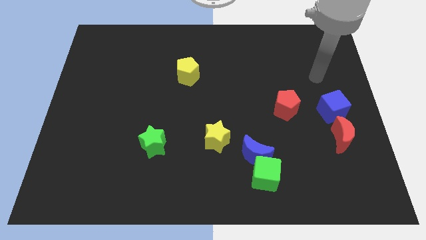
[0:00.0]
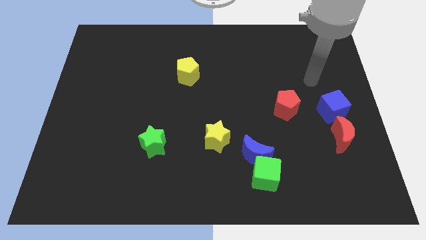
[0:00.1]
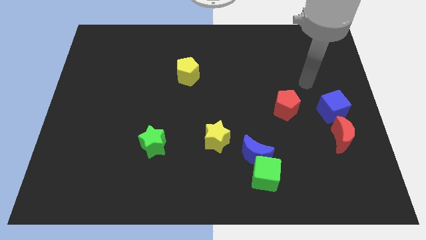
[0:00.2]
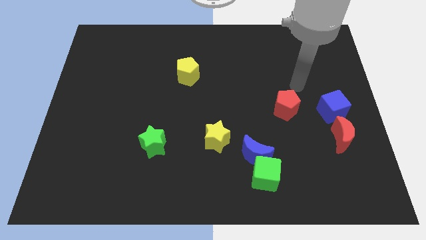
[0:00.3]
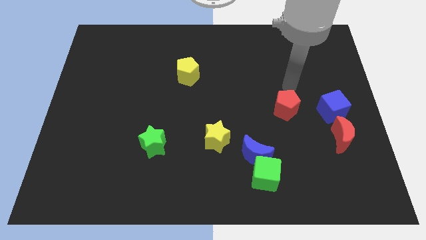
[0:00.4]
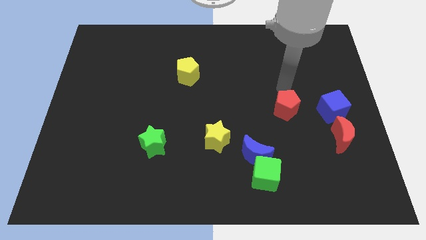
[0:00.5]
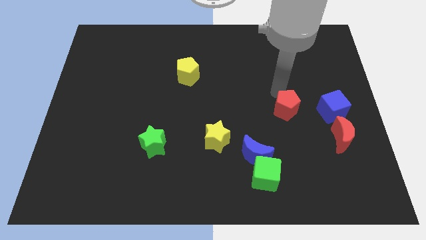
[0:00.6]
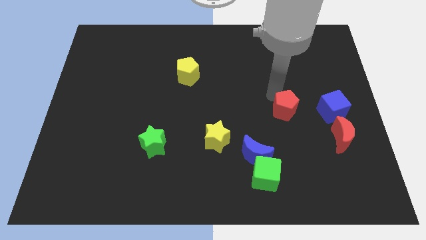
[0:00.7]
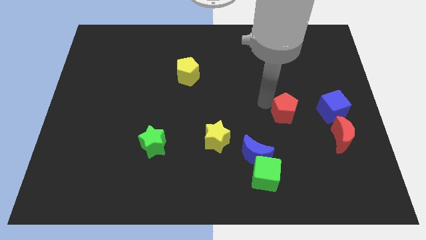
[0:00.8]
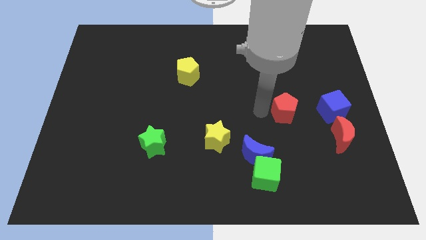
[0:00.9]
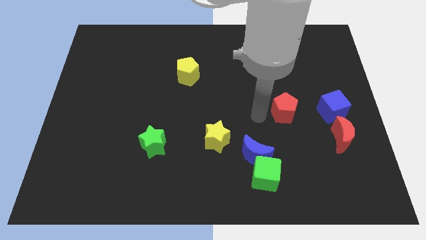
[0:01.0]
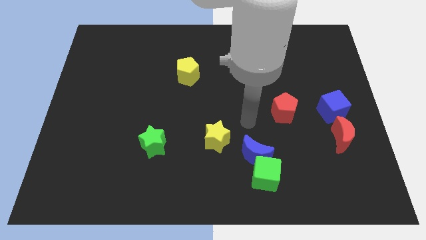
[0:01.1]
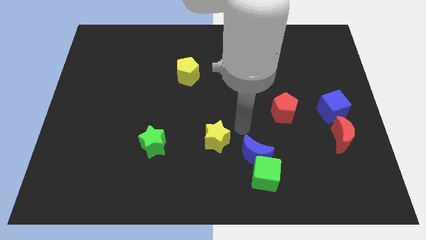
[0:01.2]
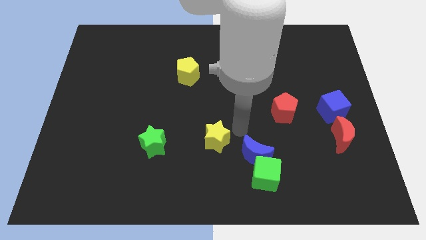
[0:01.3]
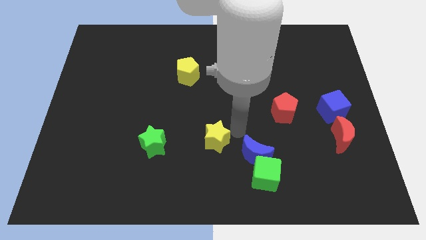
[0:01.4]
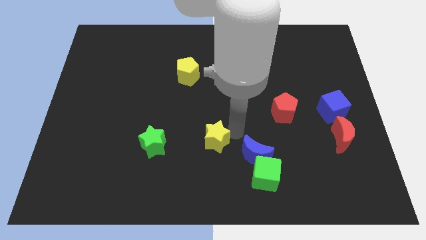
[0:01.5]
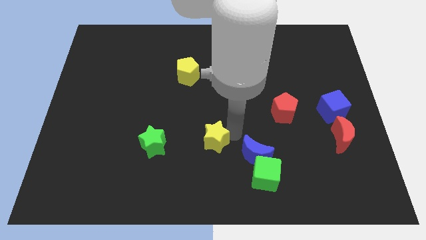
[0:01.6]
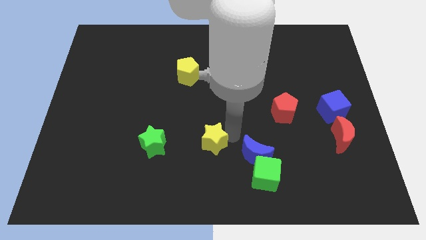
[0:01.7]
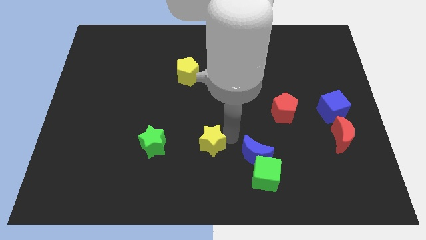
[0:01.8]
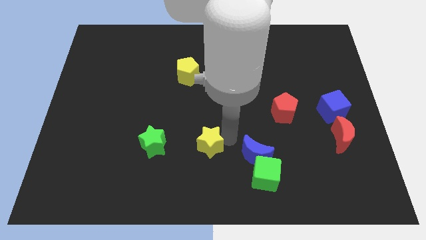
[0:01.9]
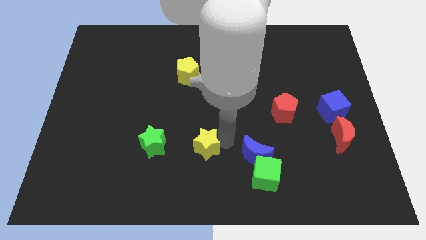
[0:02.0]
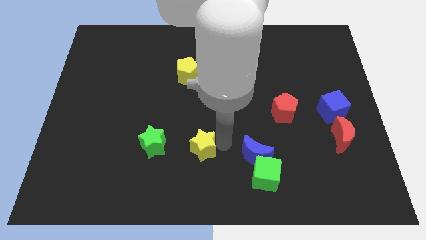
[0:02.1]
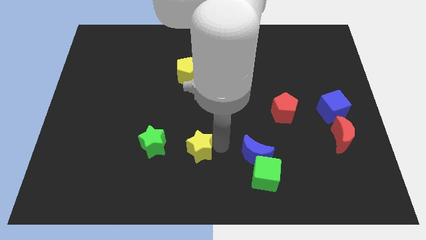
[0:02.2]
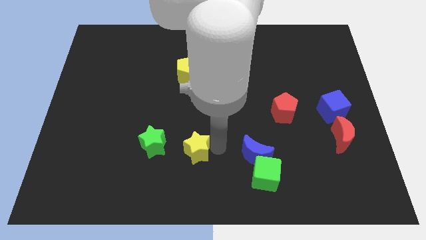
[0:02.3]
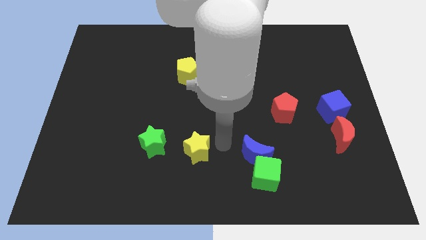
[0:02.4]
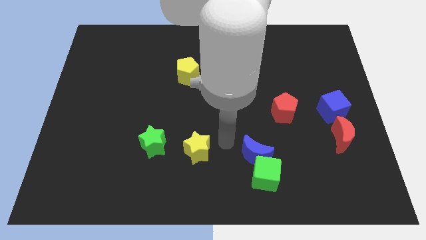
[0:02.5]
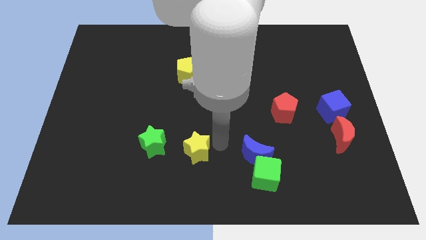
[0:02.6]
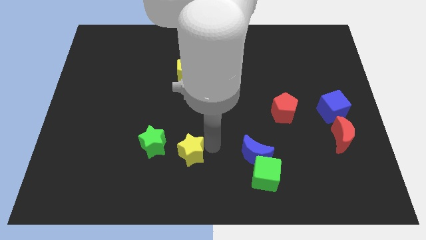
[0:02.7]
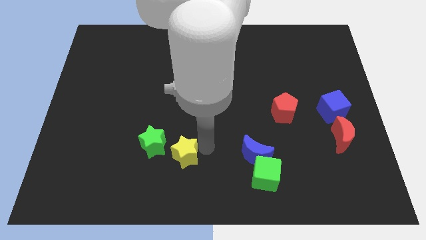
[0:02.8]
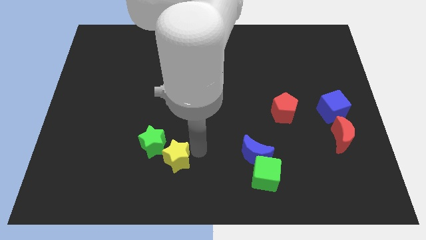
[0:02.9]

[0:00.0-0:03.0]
push the yellow star somewhat left

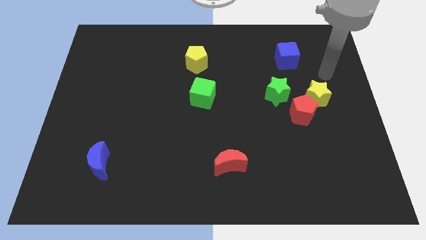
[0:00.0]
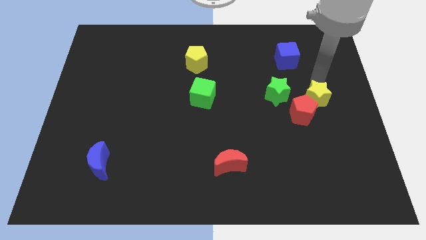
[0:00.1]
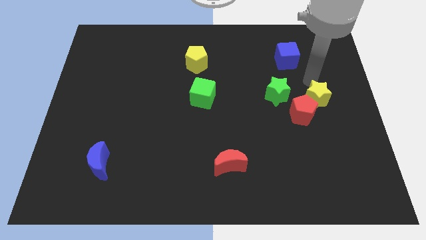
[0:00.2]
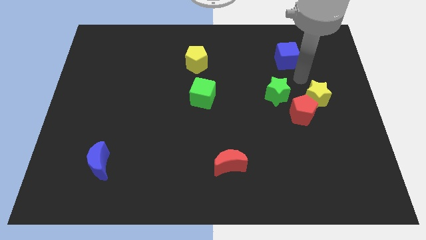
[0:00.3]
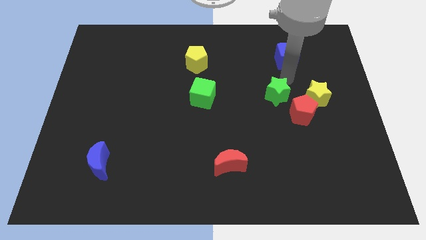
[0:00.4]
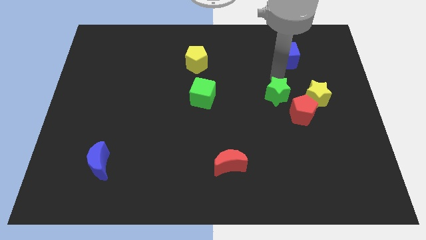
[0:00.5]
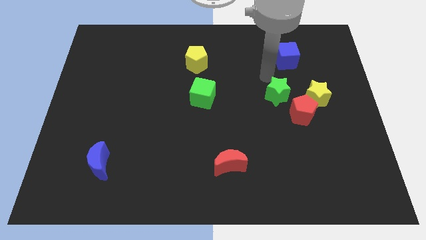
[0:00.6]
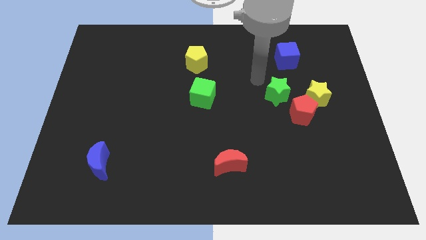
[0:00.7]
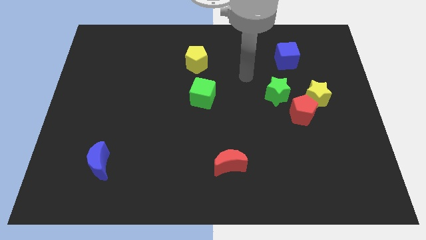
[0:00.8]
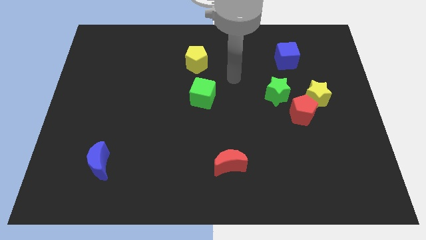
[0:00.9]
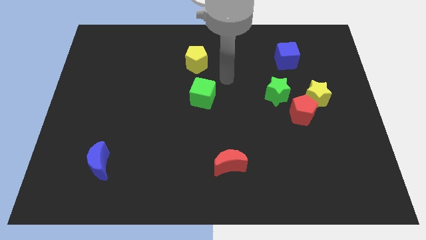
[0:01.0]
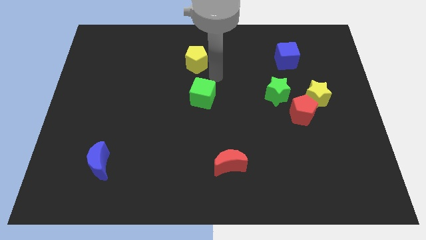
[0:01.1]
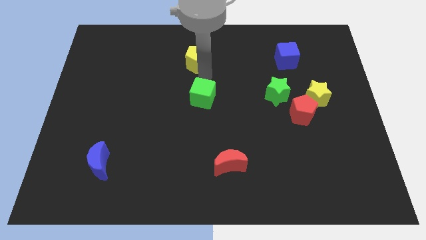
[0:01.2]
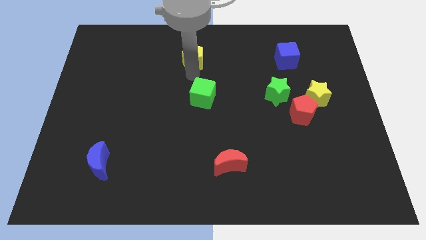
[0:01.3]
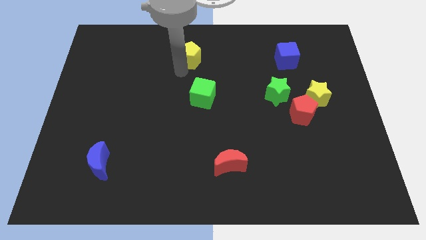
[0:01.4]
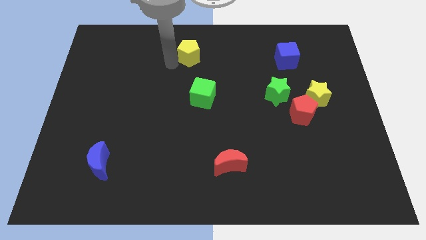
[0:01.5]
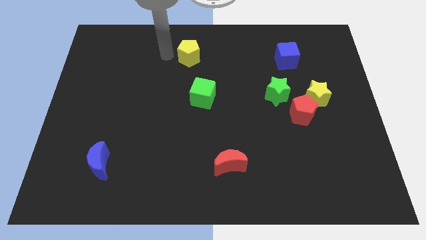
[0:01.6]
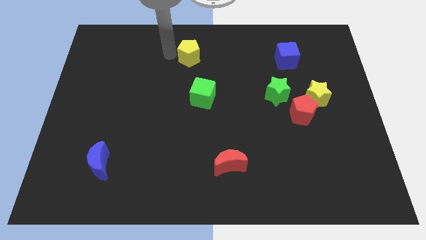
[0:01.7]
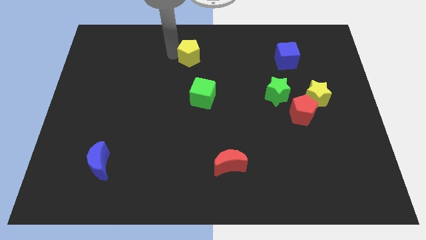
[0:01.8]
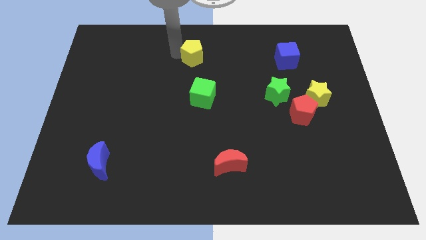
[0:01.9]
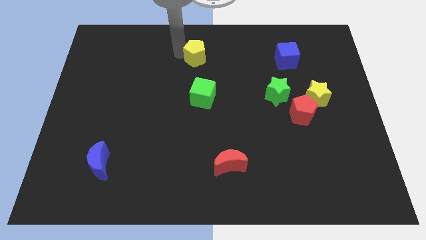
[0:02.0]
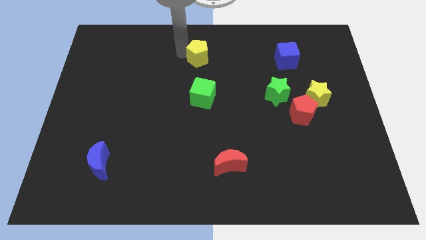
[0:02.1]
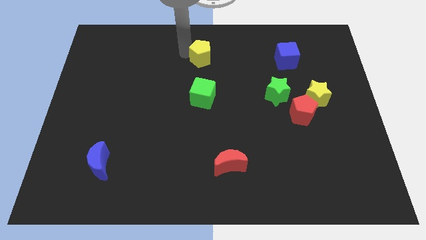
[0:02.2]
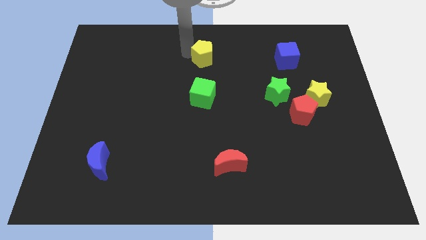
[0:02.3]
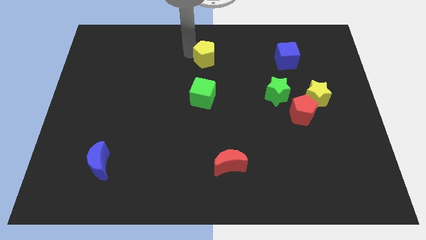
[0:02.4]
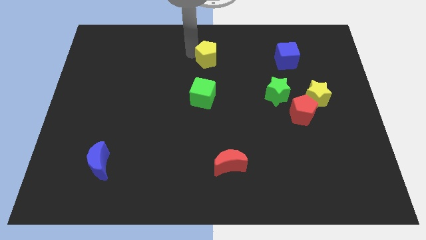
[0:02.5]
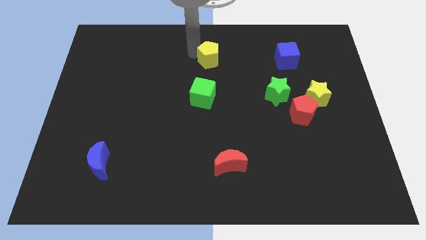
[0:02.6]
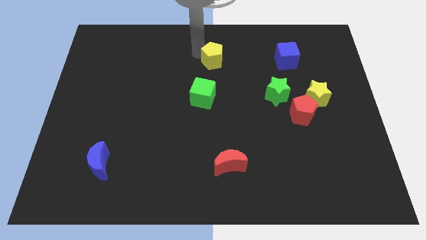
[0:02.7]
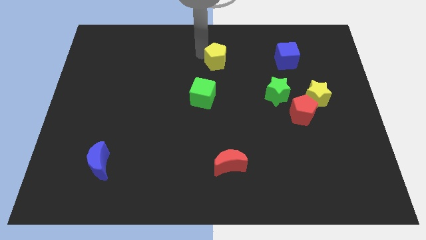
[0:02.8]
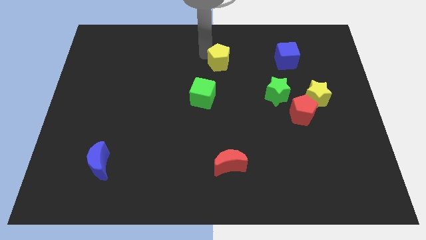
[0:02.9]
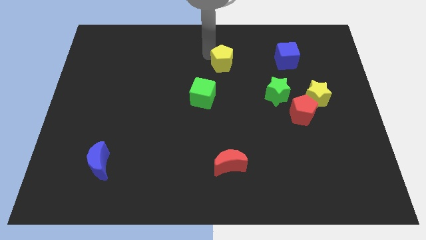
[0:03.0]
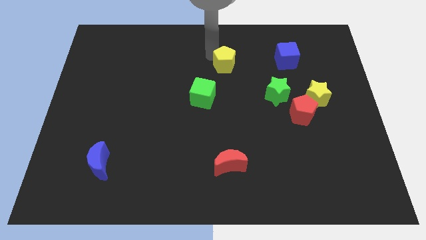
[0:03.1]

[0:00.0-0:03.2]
push the yellow pentagon right somewhat

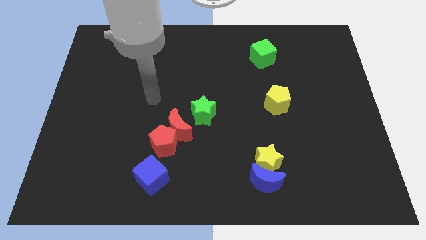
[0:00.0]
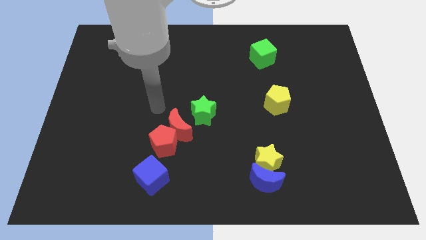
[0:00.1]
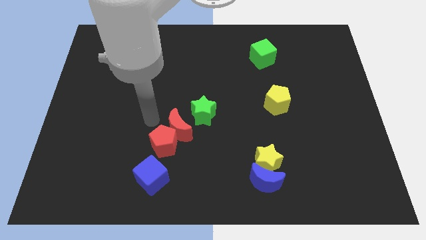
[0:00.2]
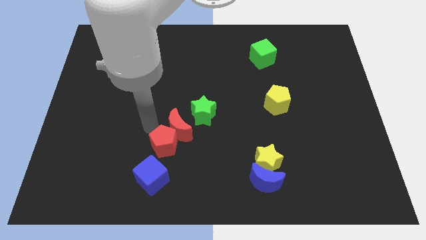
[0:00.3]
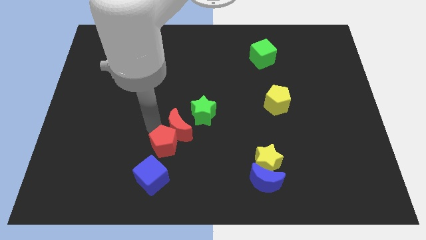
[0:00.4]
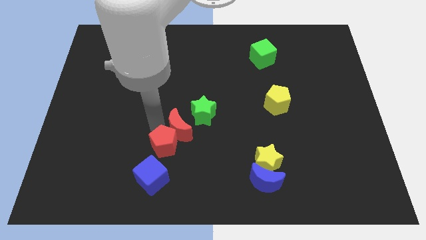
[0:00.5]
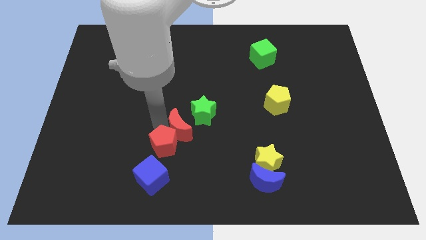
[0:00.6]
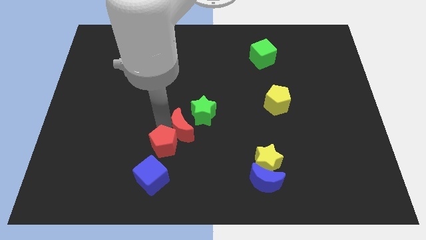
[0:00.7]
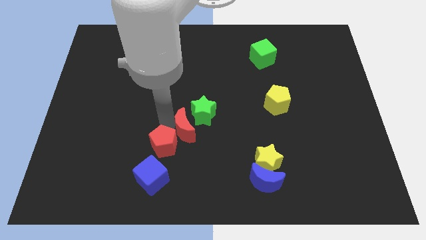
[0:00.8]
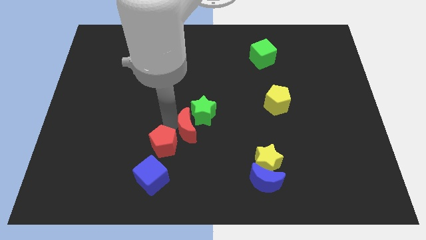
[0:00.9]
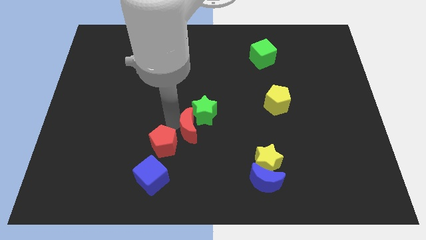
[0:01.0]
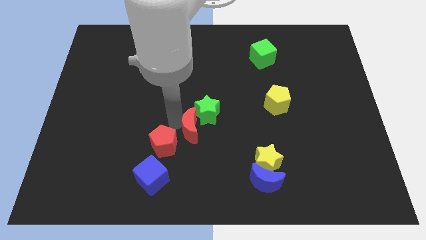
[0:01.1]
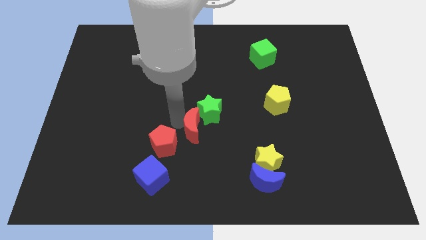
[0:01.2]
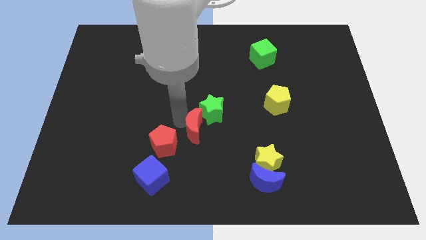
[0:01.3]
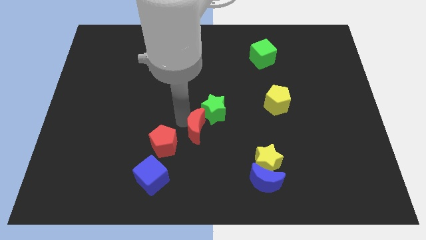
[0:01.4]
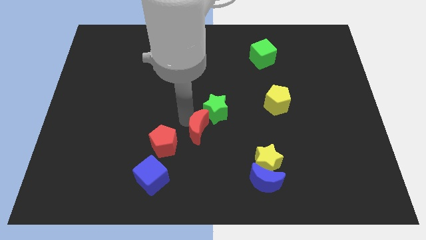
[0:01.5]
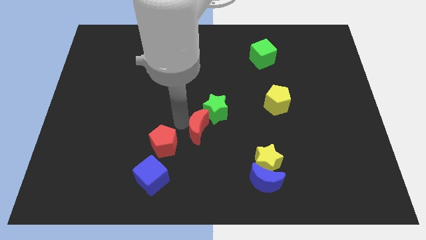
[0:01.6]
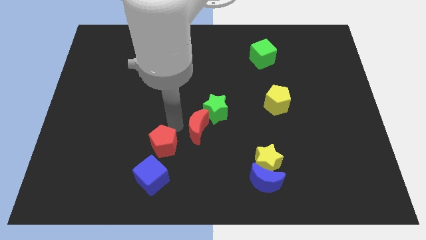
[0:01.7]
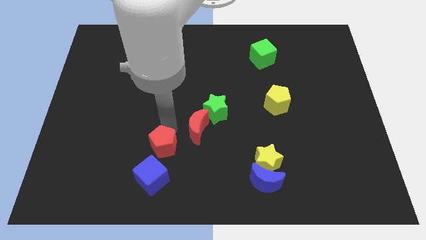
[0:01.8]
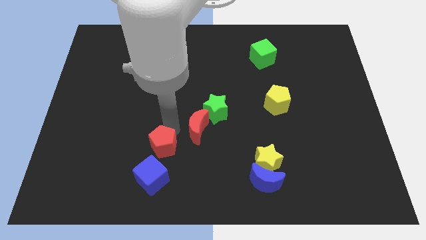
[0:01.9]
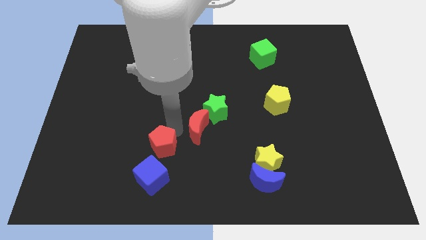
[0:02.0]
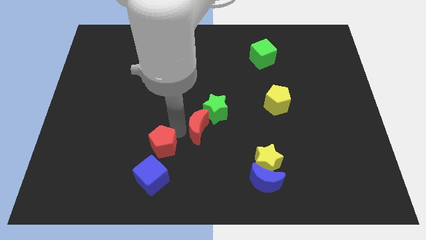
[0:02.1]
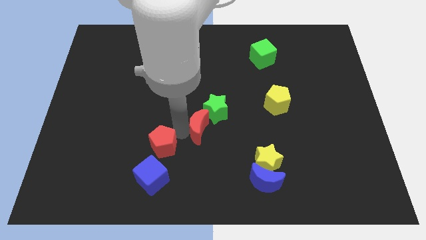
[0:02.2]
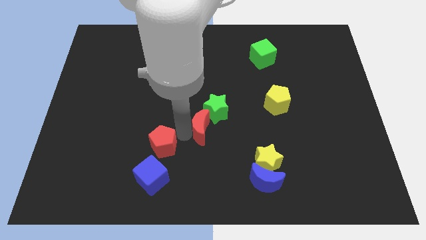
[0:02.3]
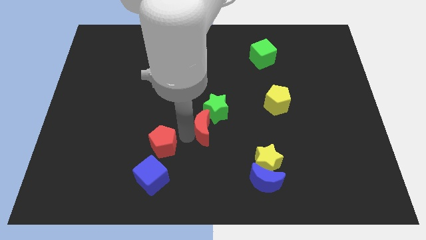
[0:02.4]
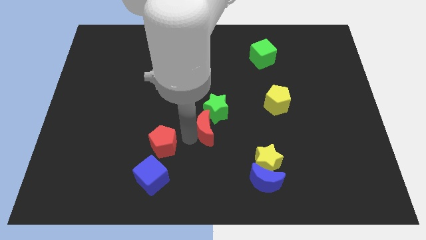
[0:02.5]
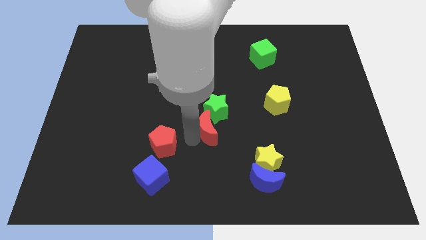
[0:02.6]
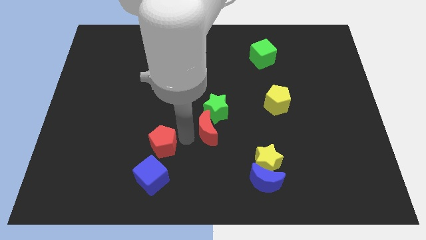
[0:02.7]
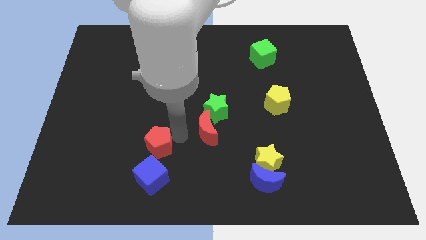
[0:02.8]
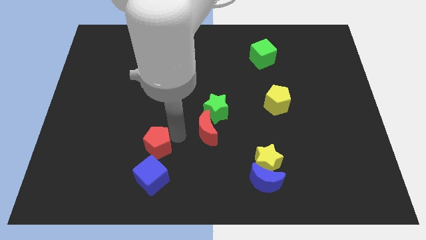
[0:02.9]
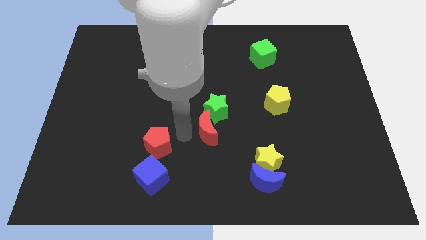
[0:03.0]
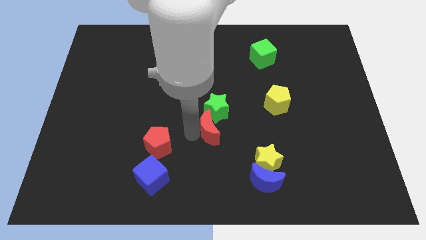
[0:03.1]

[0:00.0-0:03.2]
push the red moon a little bit to the right
